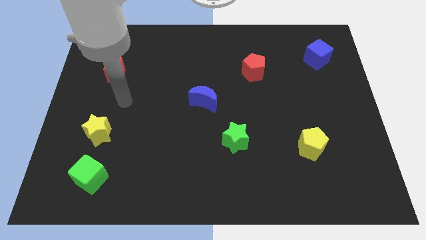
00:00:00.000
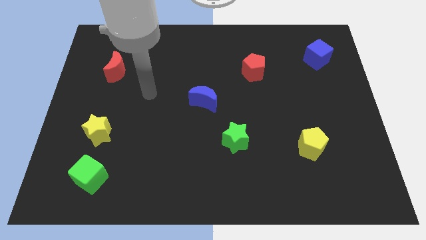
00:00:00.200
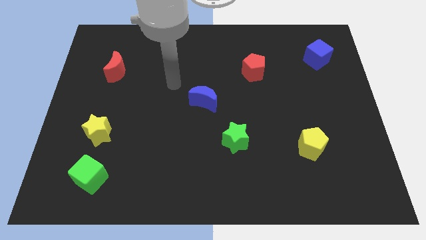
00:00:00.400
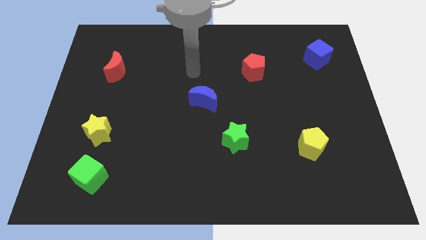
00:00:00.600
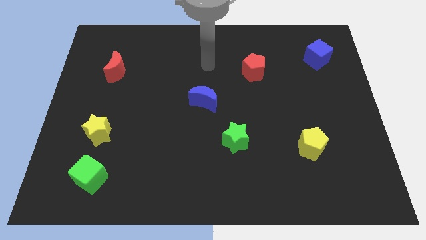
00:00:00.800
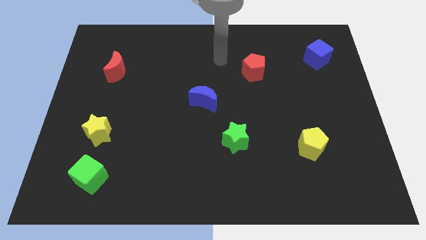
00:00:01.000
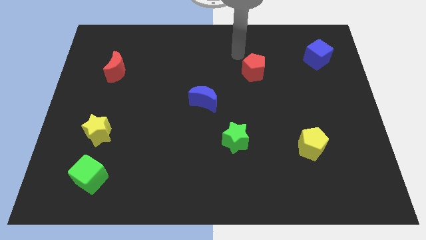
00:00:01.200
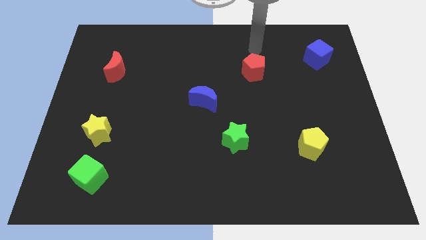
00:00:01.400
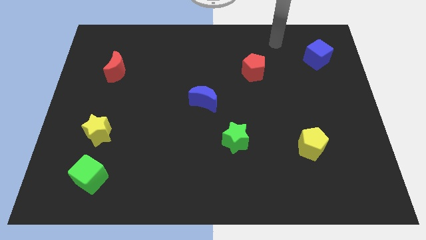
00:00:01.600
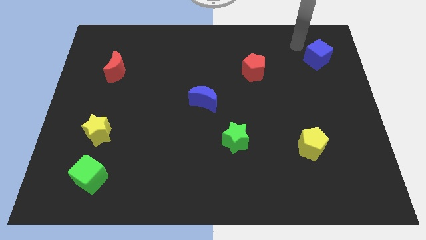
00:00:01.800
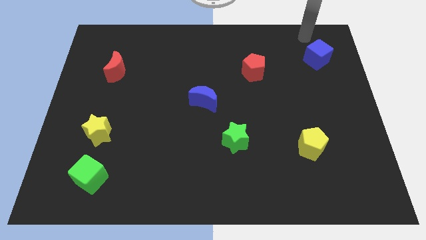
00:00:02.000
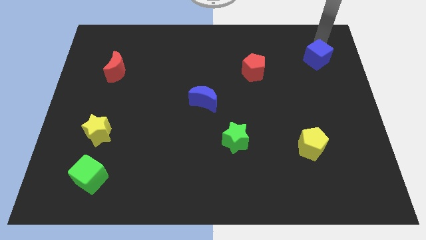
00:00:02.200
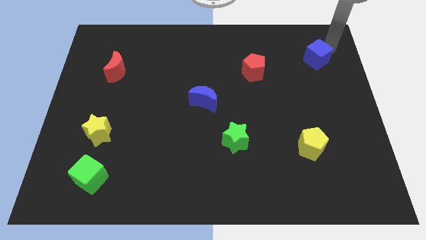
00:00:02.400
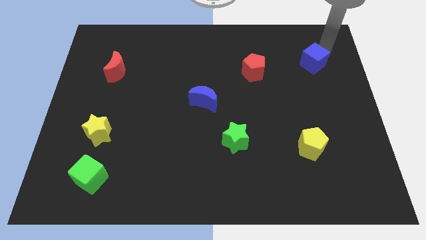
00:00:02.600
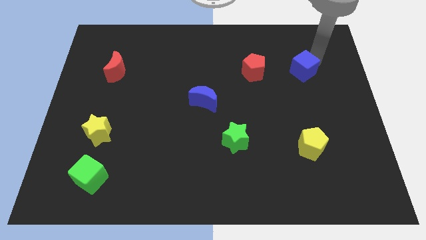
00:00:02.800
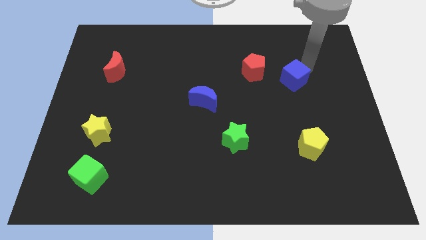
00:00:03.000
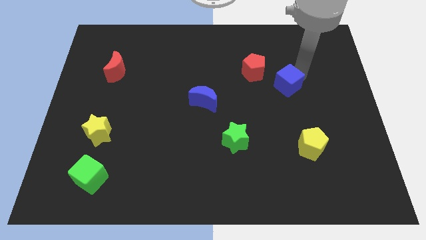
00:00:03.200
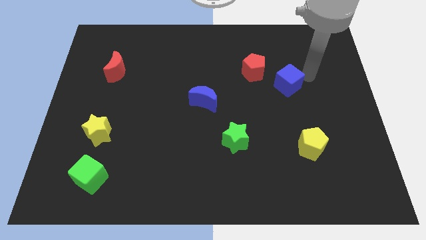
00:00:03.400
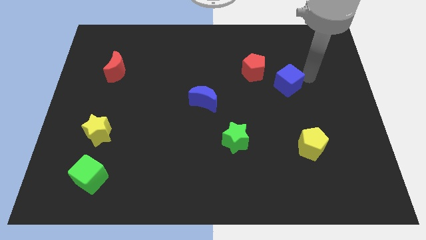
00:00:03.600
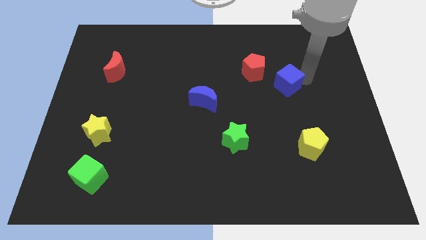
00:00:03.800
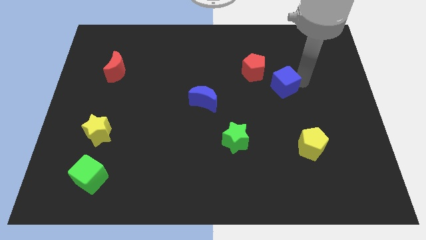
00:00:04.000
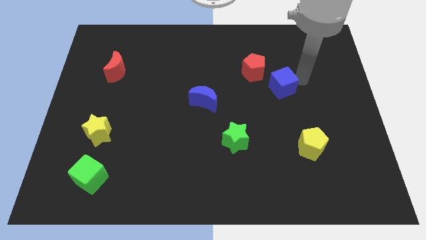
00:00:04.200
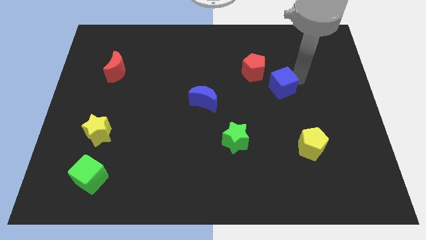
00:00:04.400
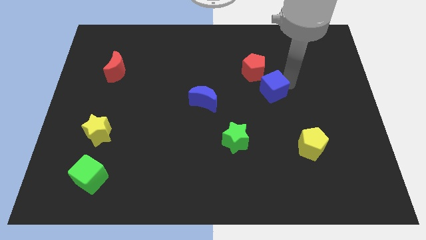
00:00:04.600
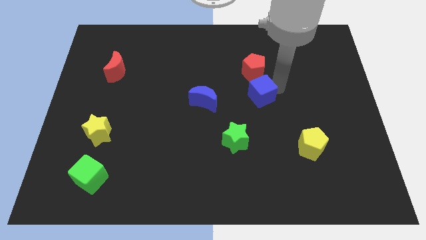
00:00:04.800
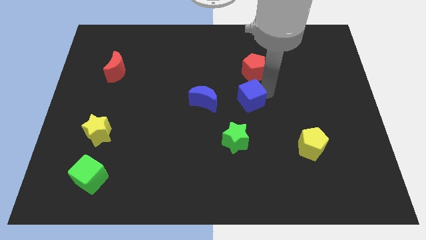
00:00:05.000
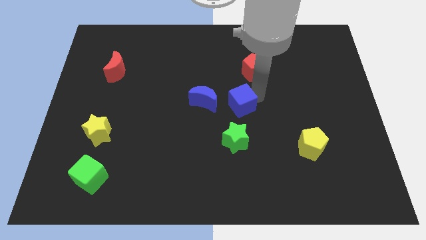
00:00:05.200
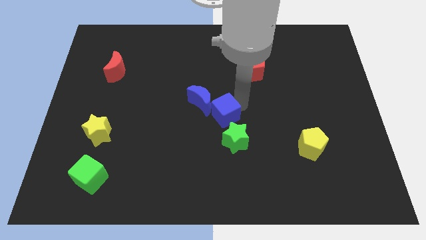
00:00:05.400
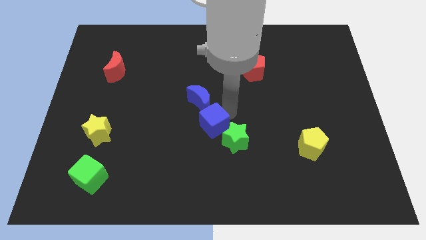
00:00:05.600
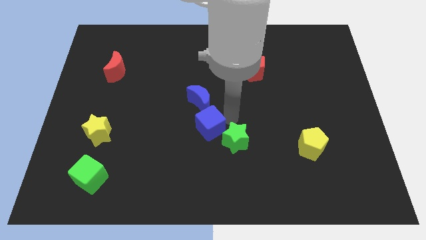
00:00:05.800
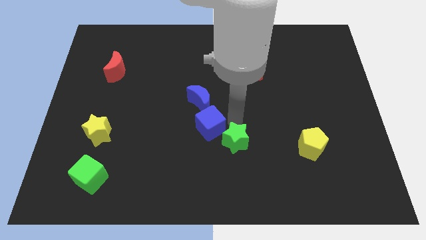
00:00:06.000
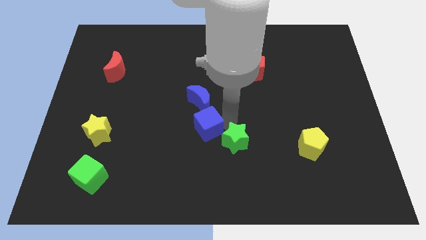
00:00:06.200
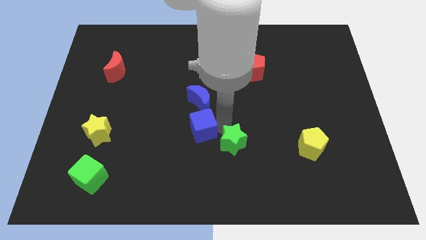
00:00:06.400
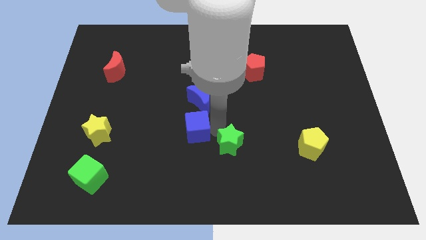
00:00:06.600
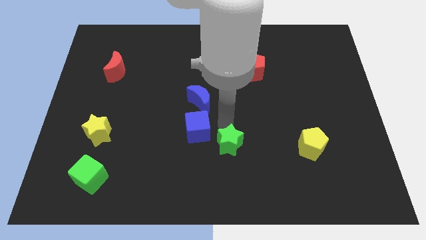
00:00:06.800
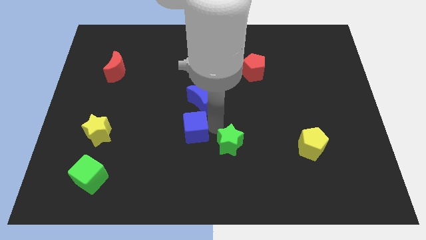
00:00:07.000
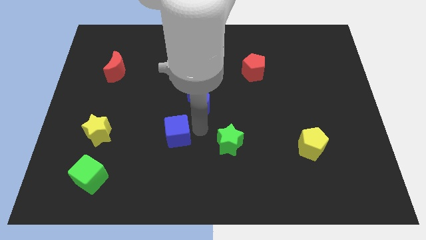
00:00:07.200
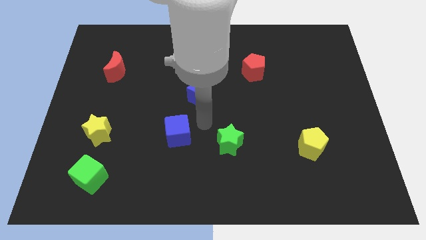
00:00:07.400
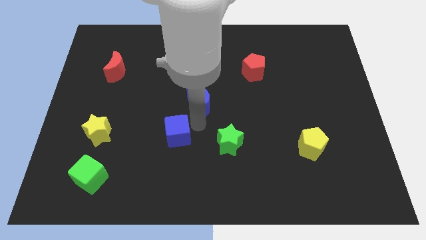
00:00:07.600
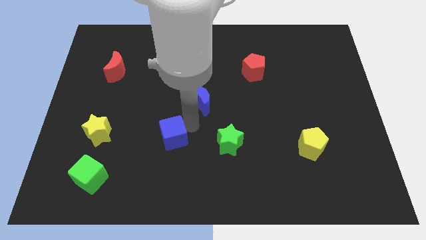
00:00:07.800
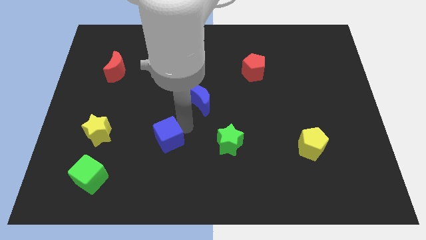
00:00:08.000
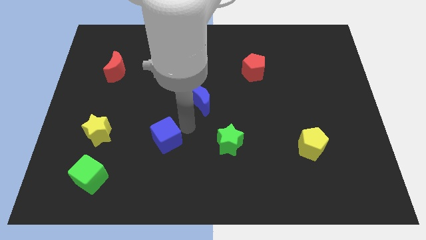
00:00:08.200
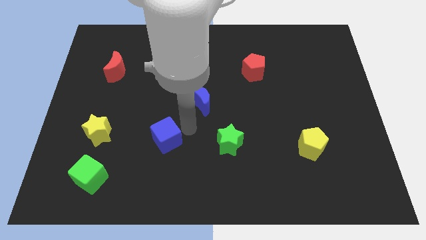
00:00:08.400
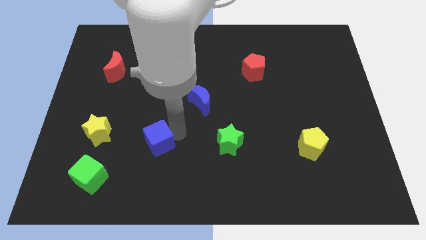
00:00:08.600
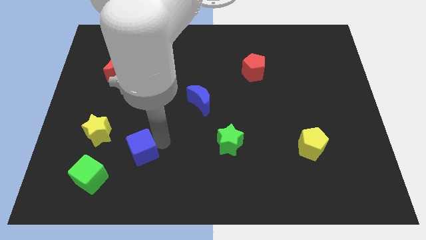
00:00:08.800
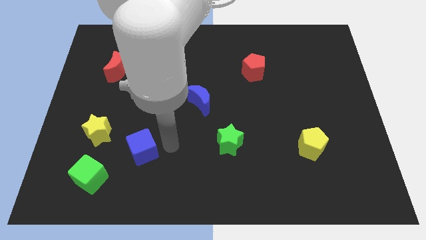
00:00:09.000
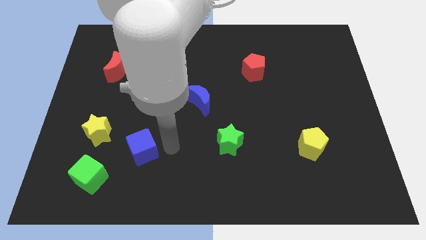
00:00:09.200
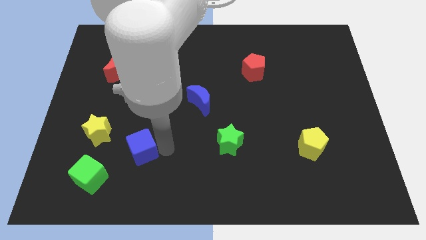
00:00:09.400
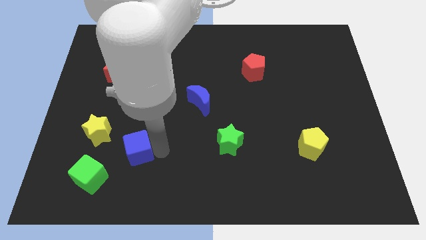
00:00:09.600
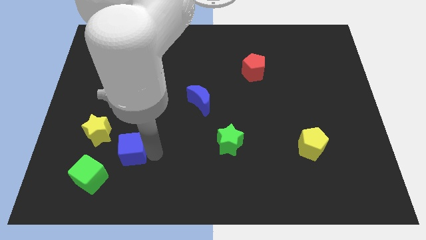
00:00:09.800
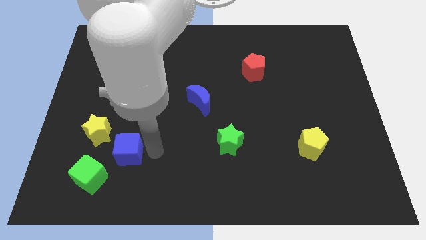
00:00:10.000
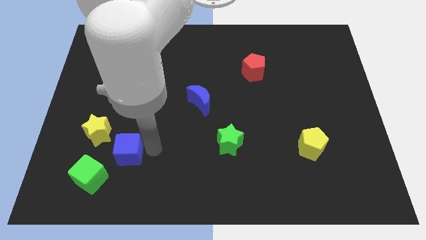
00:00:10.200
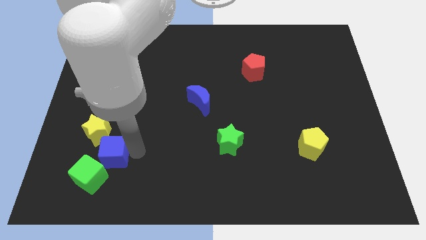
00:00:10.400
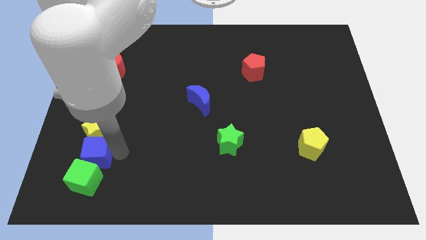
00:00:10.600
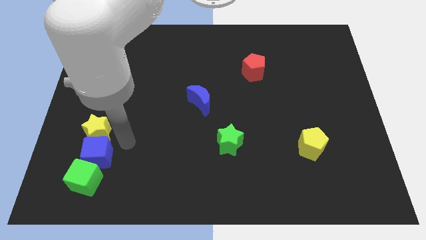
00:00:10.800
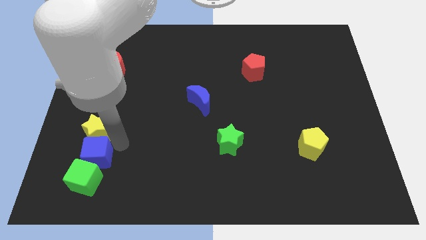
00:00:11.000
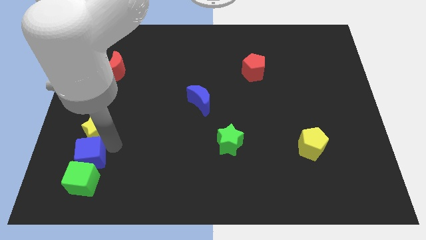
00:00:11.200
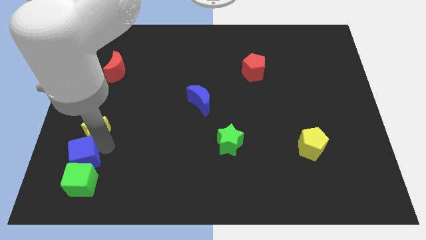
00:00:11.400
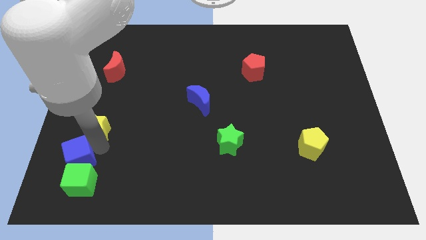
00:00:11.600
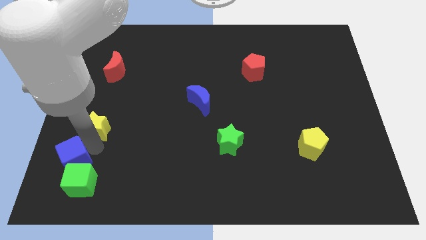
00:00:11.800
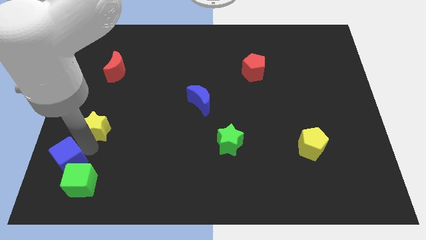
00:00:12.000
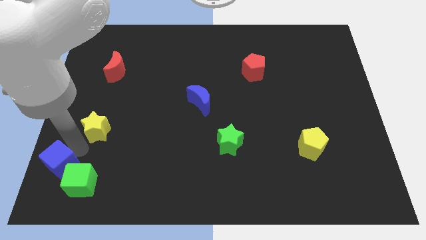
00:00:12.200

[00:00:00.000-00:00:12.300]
push the blue cube to the lower left corner
